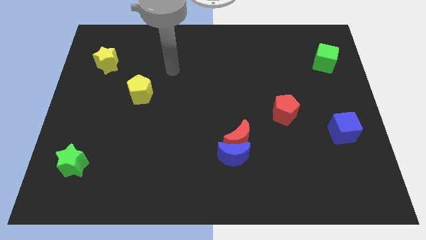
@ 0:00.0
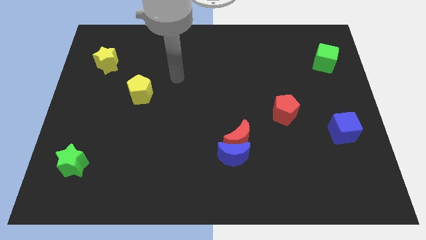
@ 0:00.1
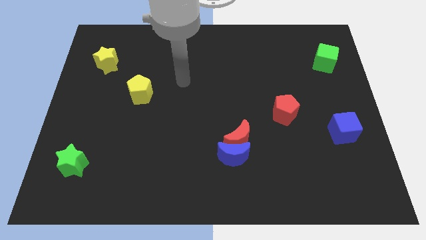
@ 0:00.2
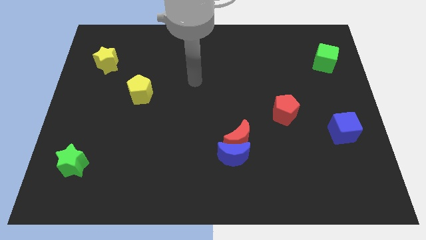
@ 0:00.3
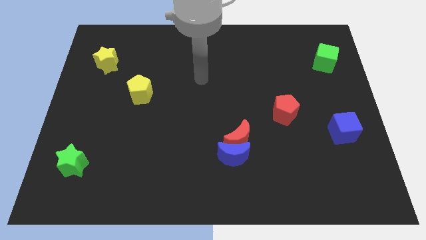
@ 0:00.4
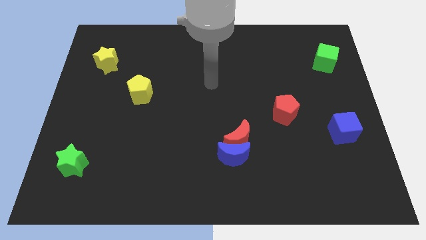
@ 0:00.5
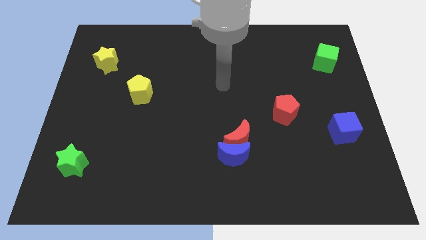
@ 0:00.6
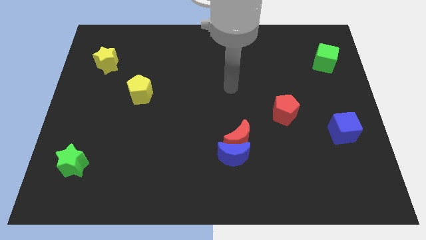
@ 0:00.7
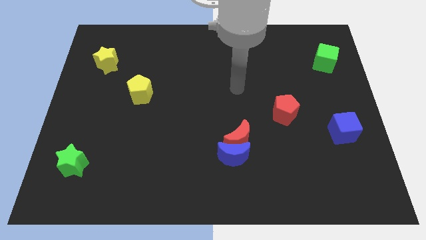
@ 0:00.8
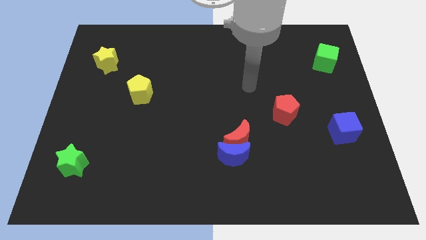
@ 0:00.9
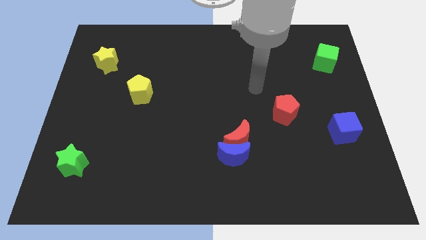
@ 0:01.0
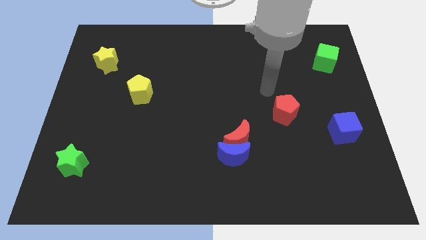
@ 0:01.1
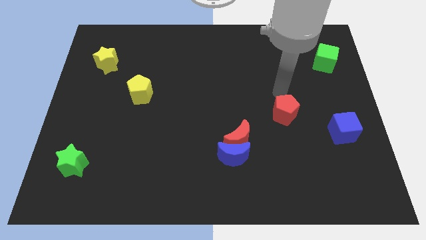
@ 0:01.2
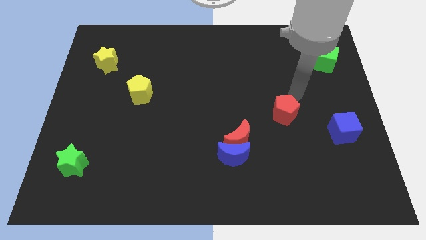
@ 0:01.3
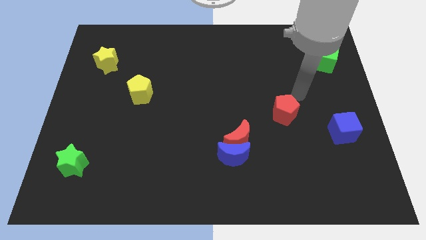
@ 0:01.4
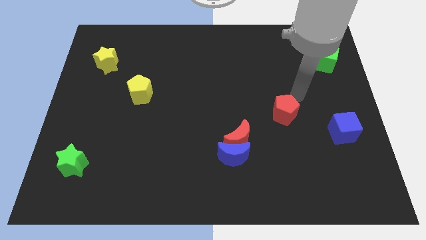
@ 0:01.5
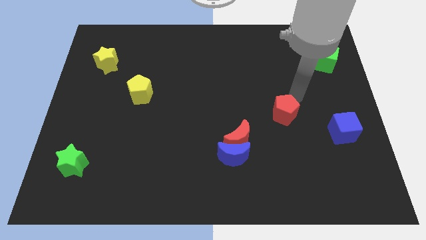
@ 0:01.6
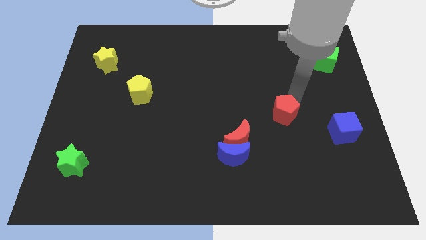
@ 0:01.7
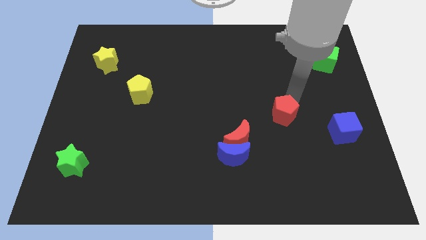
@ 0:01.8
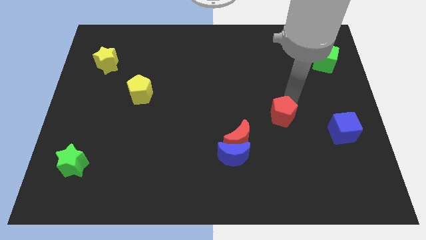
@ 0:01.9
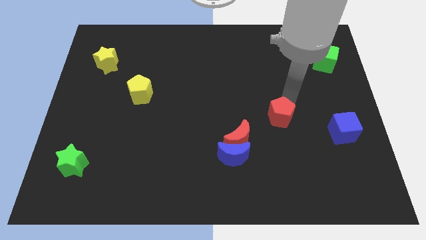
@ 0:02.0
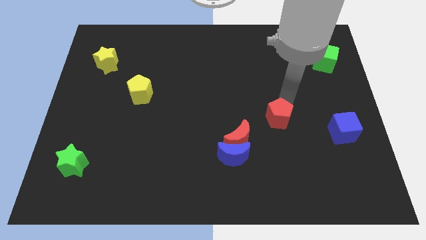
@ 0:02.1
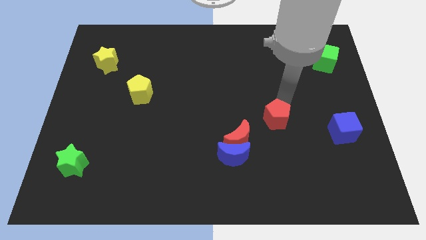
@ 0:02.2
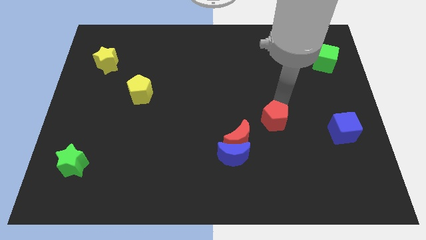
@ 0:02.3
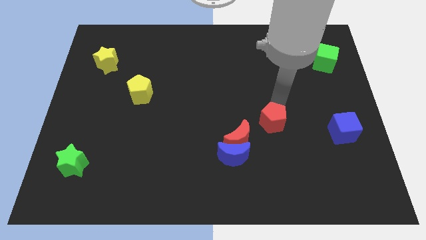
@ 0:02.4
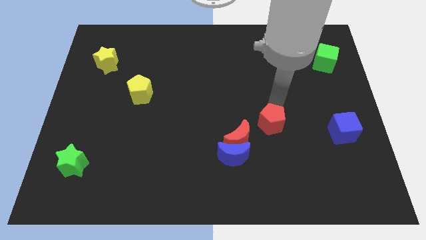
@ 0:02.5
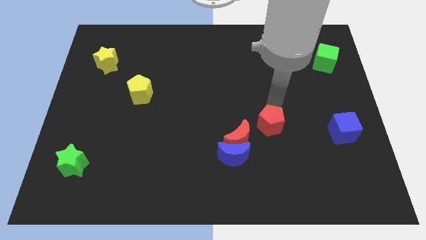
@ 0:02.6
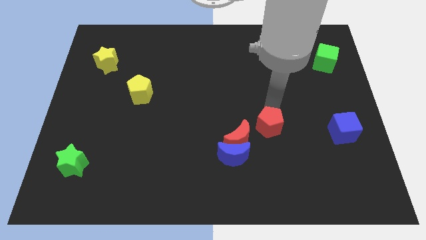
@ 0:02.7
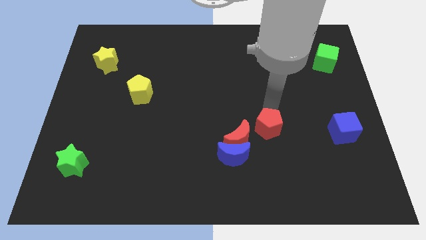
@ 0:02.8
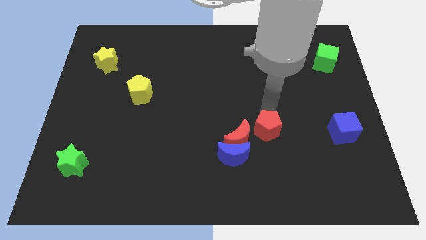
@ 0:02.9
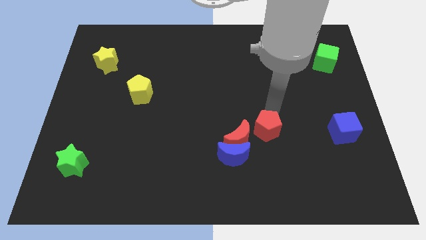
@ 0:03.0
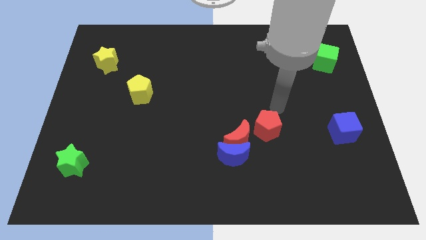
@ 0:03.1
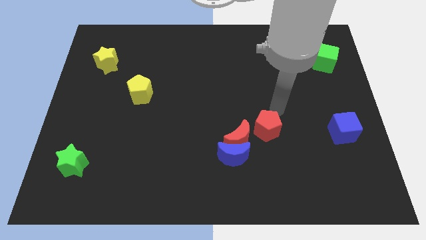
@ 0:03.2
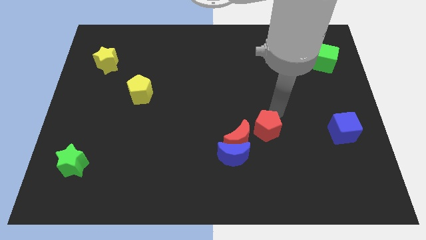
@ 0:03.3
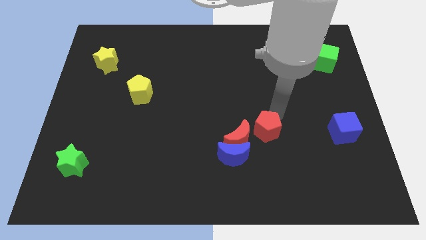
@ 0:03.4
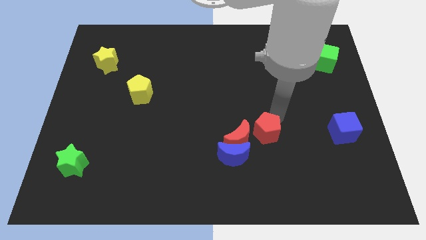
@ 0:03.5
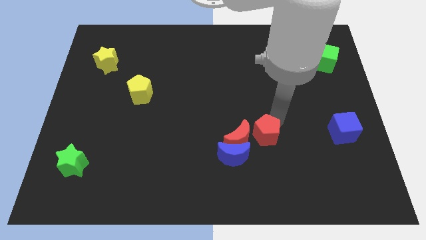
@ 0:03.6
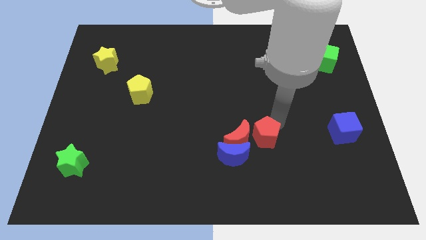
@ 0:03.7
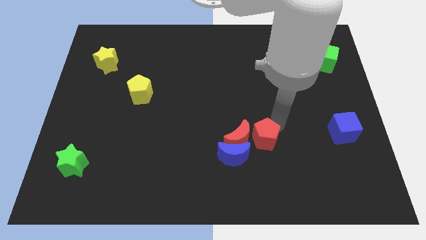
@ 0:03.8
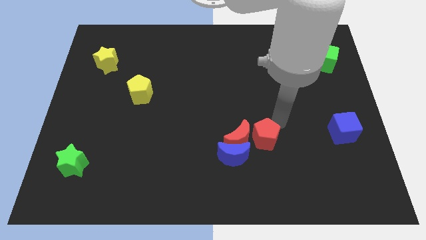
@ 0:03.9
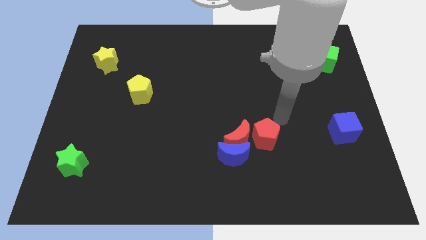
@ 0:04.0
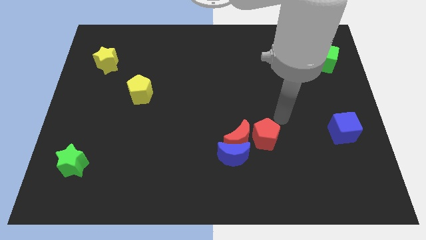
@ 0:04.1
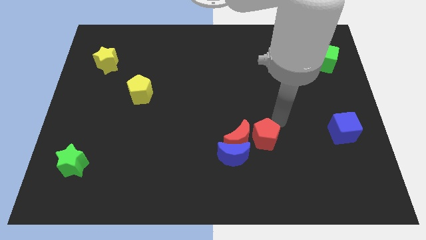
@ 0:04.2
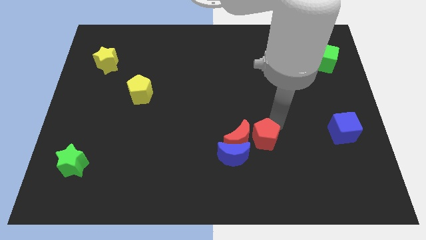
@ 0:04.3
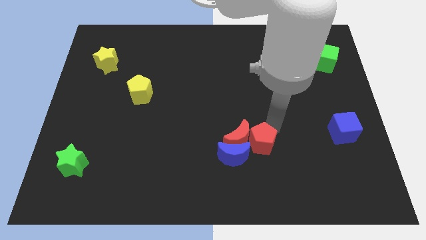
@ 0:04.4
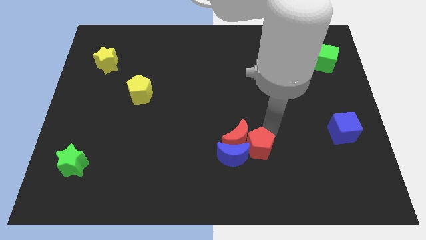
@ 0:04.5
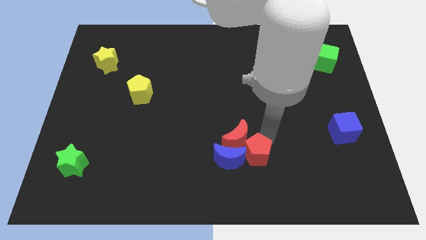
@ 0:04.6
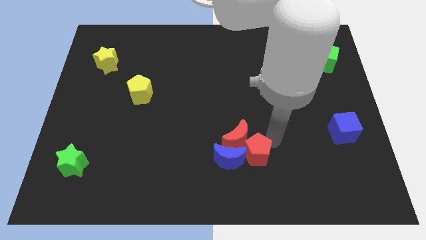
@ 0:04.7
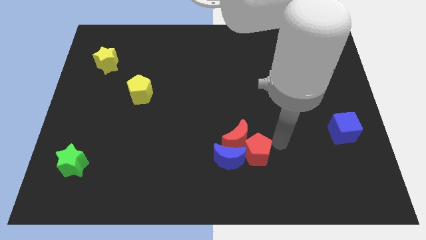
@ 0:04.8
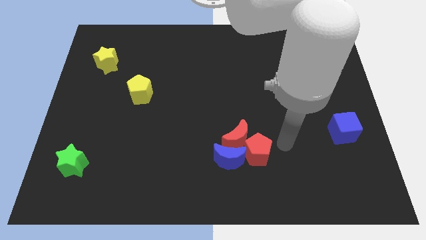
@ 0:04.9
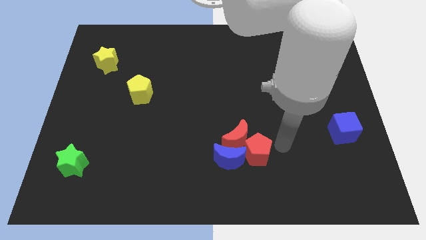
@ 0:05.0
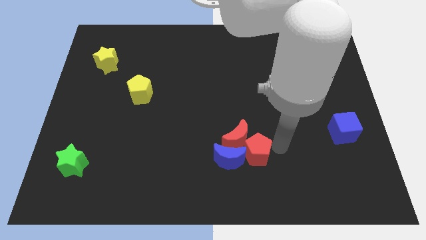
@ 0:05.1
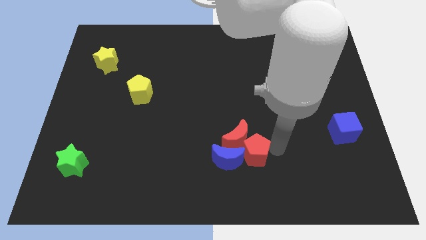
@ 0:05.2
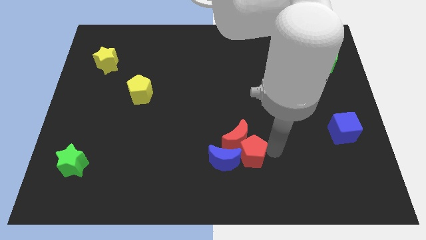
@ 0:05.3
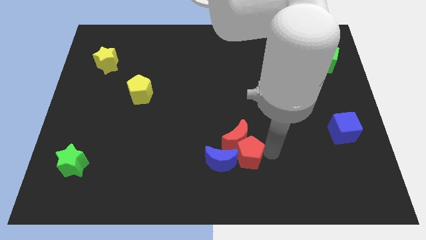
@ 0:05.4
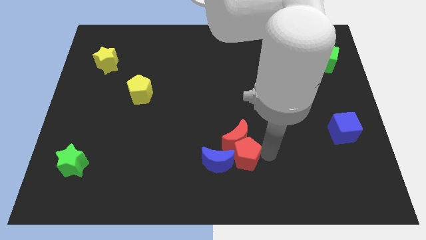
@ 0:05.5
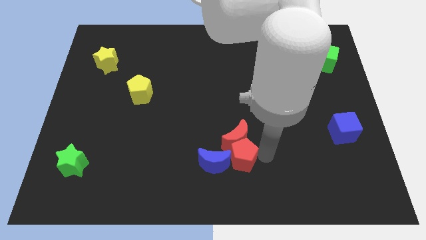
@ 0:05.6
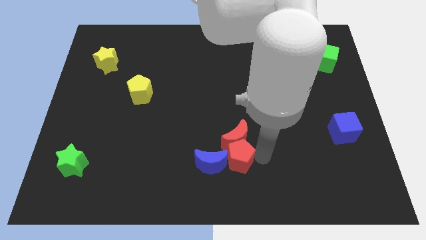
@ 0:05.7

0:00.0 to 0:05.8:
put the red pentagon next to the blue moon

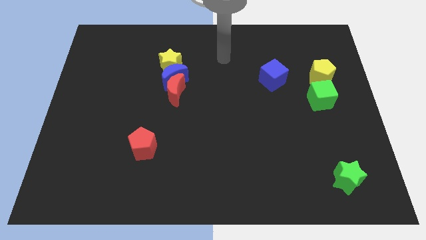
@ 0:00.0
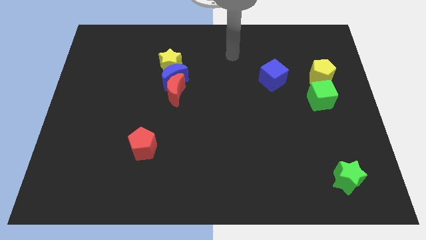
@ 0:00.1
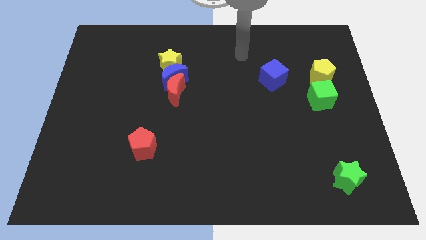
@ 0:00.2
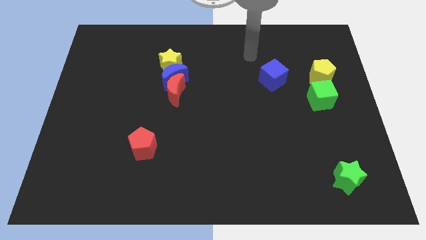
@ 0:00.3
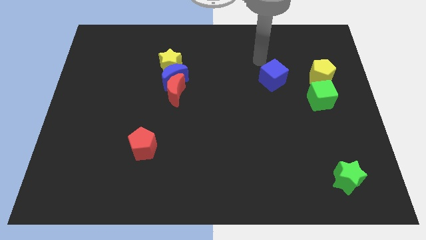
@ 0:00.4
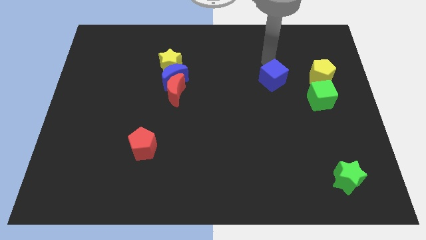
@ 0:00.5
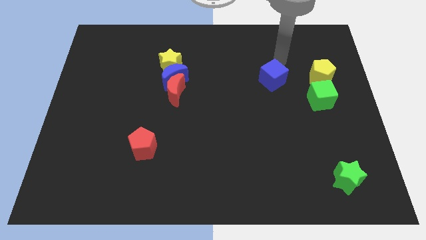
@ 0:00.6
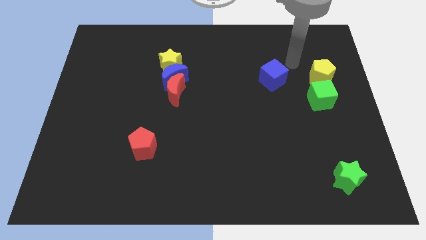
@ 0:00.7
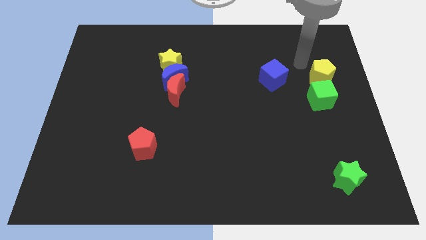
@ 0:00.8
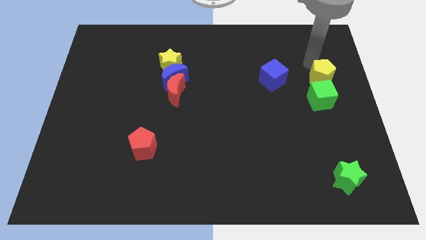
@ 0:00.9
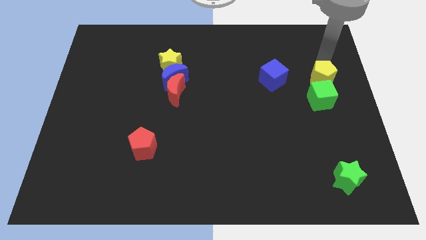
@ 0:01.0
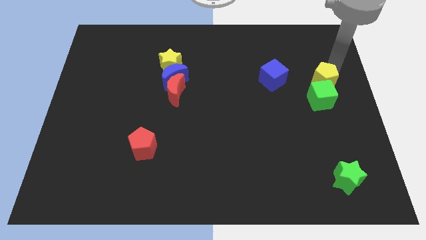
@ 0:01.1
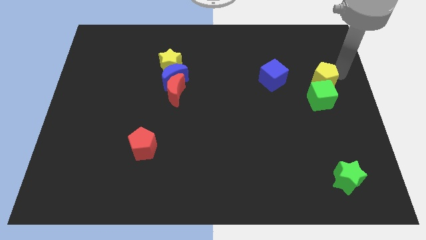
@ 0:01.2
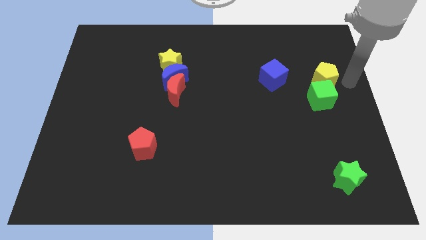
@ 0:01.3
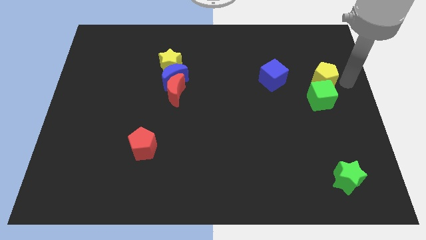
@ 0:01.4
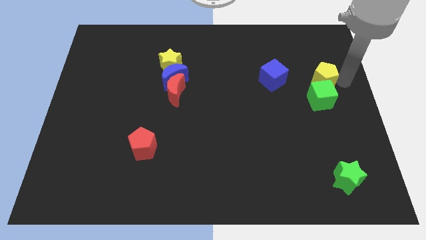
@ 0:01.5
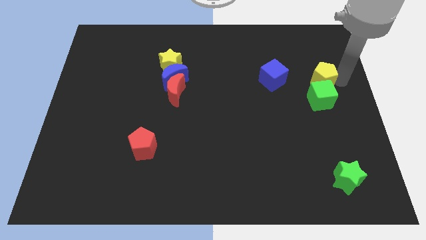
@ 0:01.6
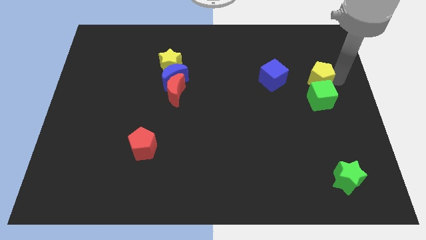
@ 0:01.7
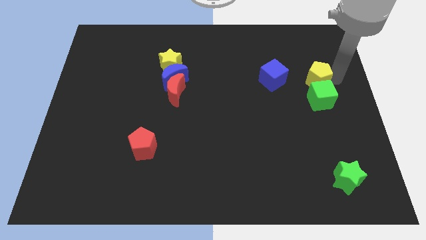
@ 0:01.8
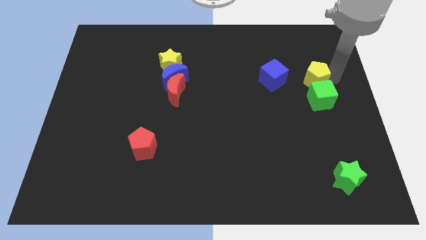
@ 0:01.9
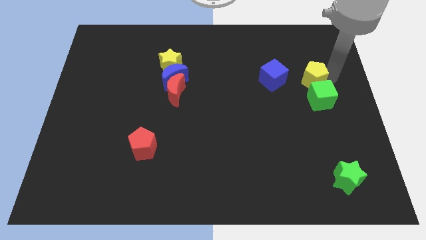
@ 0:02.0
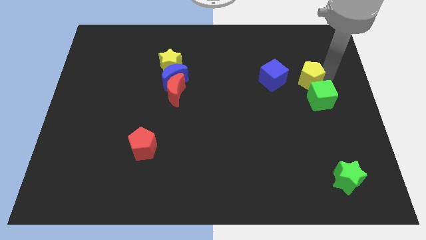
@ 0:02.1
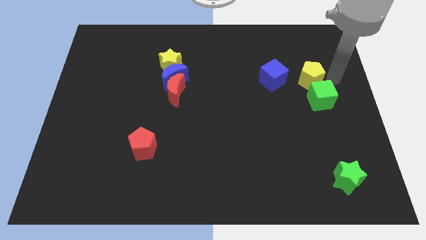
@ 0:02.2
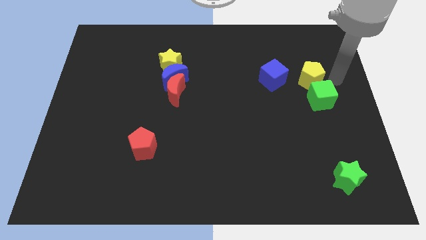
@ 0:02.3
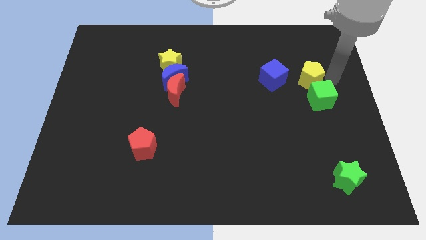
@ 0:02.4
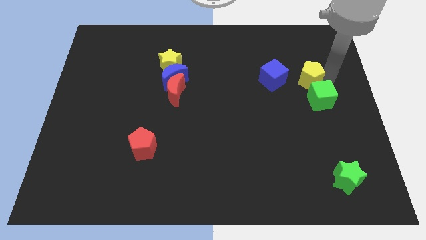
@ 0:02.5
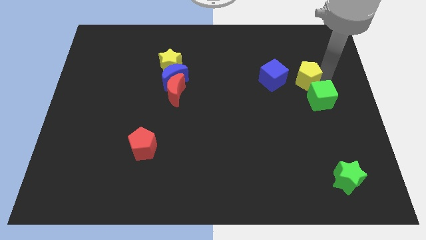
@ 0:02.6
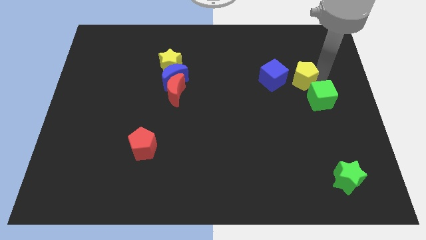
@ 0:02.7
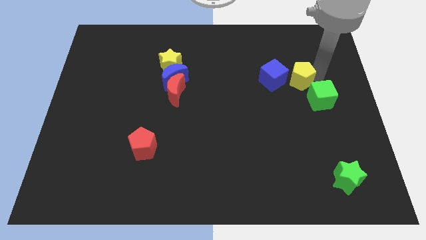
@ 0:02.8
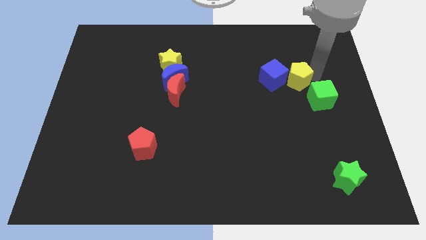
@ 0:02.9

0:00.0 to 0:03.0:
move the yellow pentagon to the blue cube
